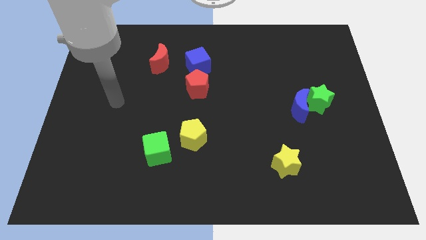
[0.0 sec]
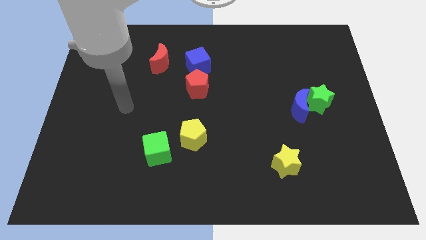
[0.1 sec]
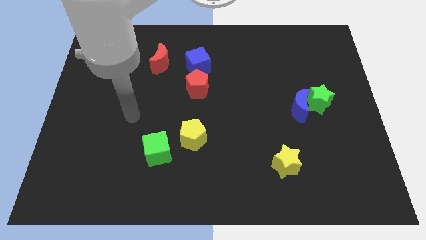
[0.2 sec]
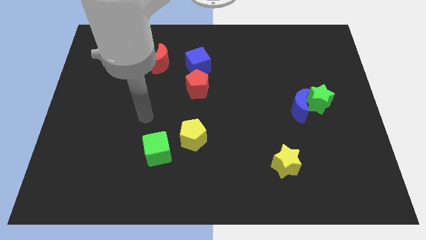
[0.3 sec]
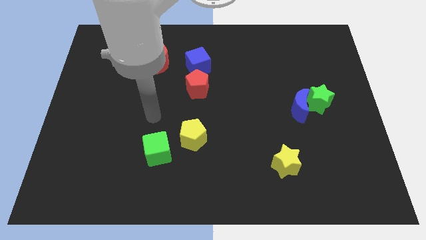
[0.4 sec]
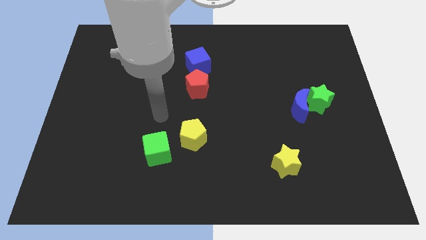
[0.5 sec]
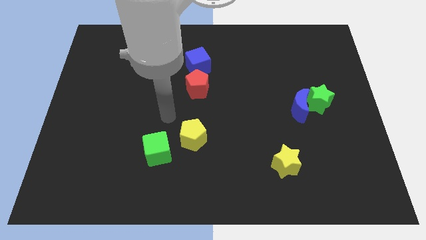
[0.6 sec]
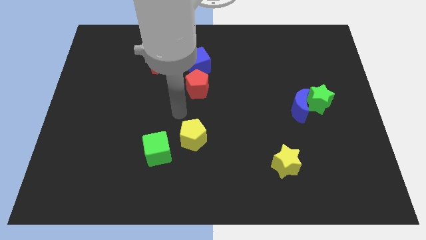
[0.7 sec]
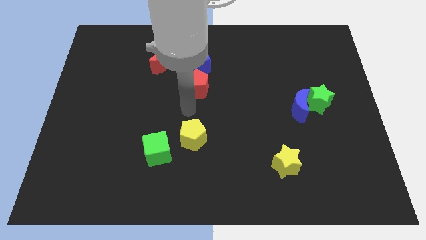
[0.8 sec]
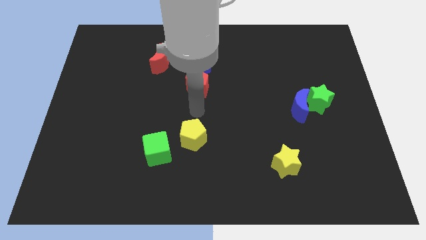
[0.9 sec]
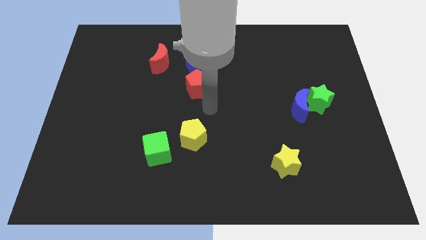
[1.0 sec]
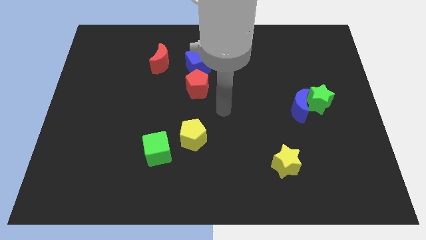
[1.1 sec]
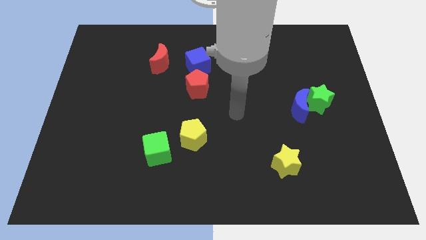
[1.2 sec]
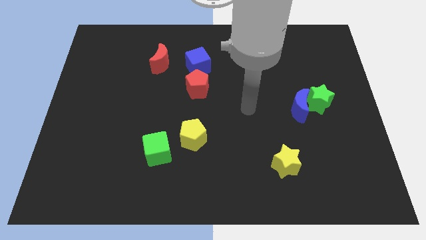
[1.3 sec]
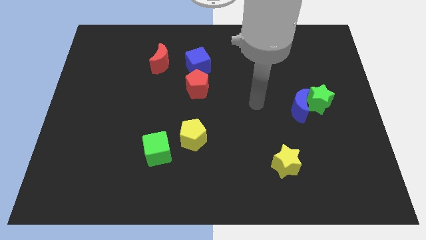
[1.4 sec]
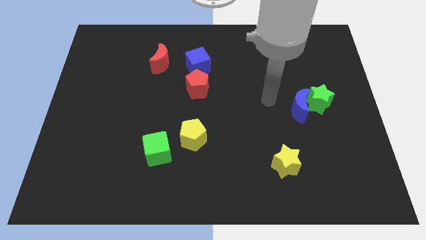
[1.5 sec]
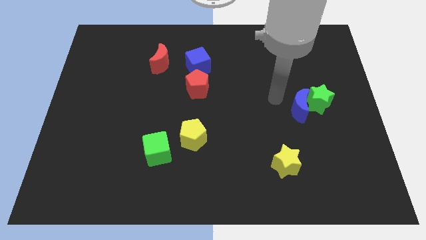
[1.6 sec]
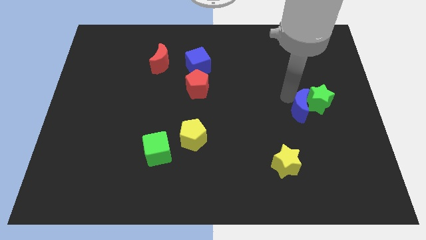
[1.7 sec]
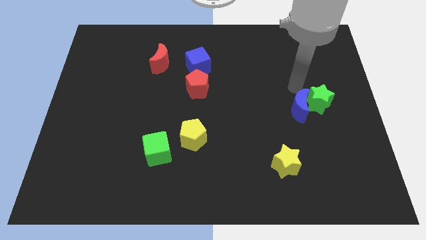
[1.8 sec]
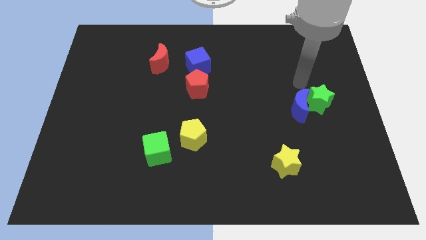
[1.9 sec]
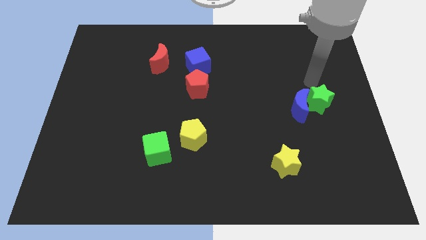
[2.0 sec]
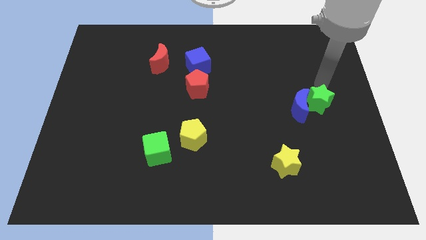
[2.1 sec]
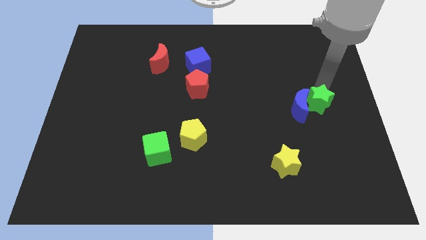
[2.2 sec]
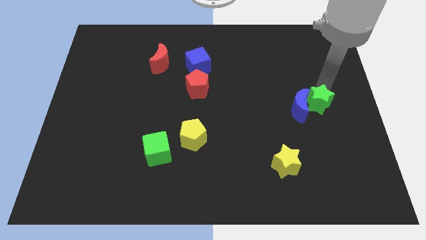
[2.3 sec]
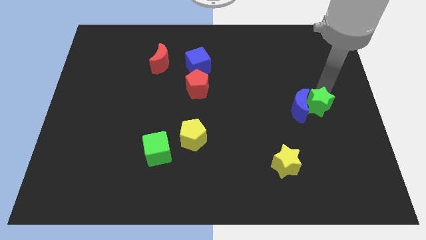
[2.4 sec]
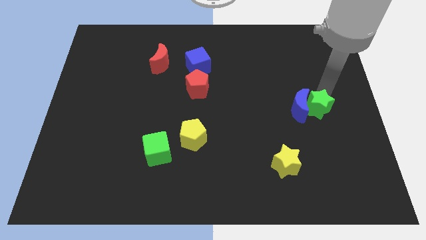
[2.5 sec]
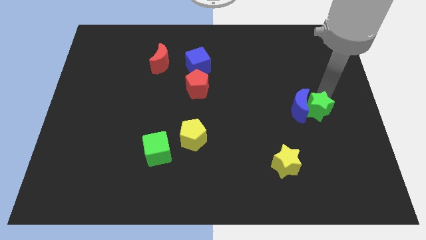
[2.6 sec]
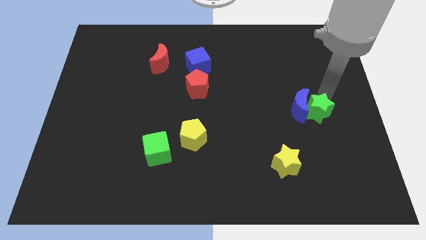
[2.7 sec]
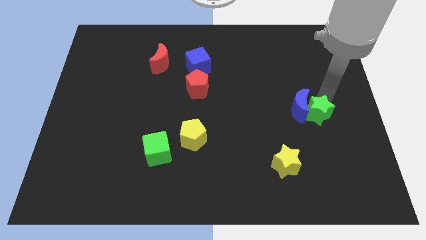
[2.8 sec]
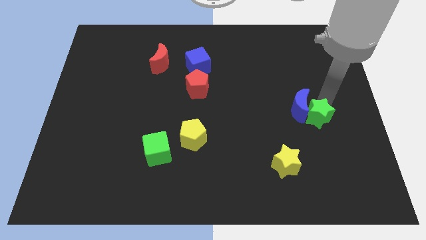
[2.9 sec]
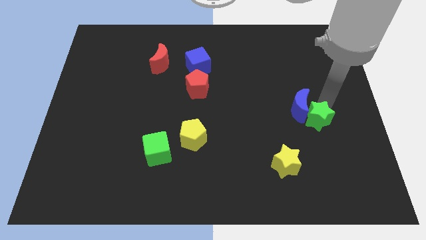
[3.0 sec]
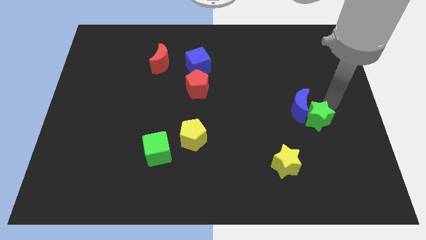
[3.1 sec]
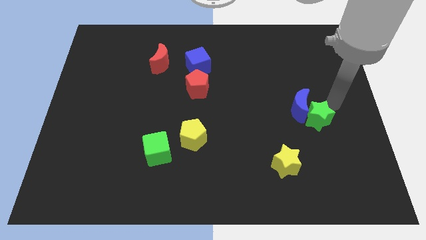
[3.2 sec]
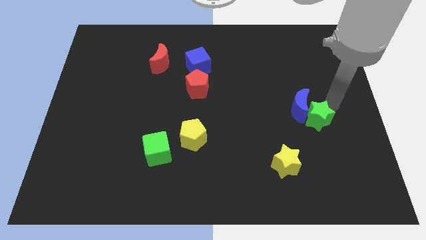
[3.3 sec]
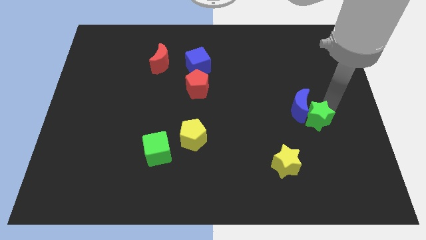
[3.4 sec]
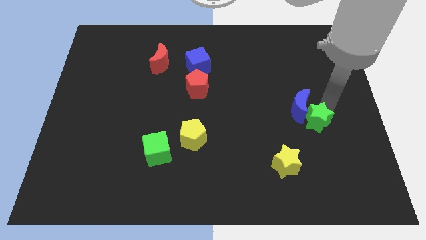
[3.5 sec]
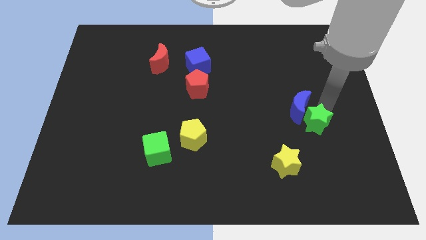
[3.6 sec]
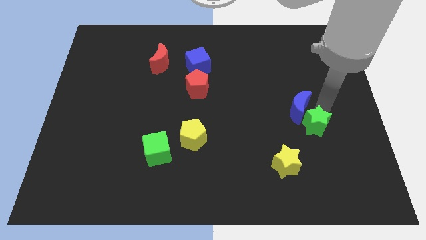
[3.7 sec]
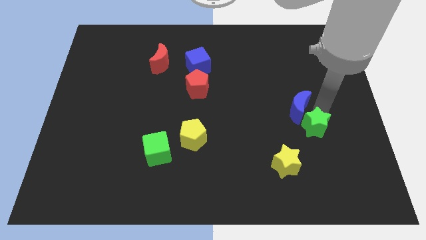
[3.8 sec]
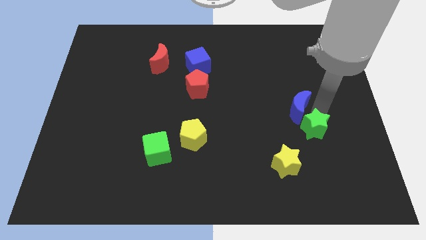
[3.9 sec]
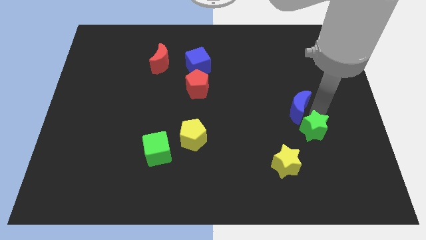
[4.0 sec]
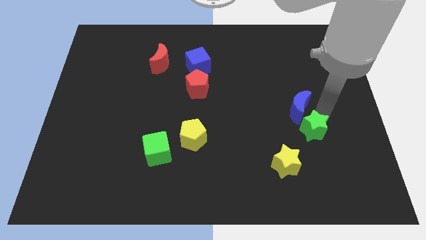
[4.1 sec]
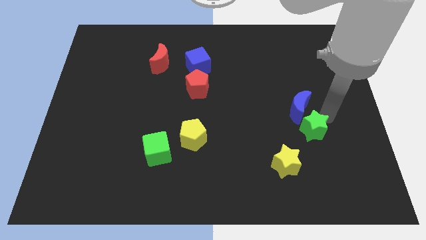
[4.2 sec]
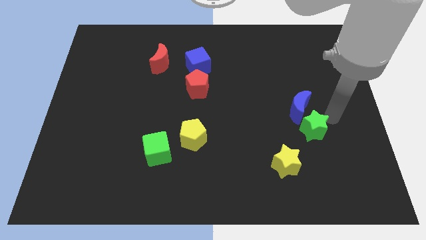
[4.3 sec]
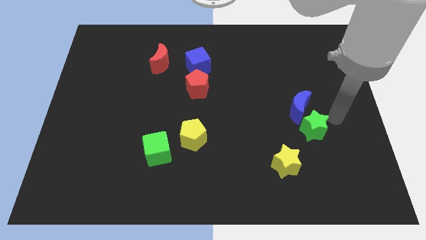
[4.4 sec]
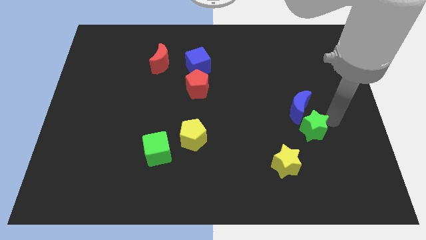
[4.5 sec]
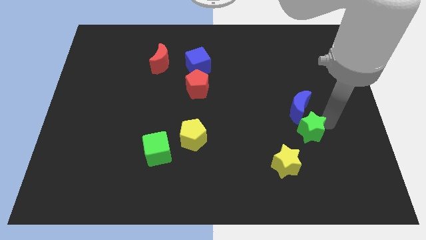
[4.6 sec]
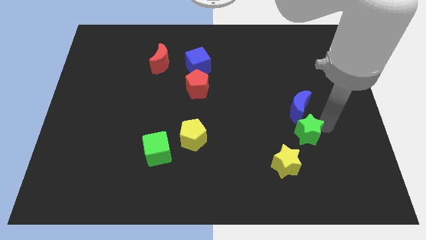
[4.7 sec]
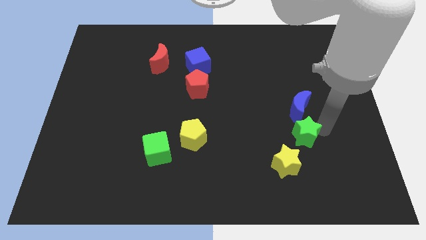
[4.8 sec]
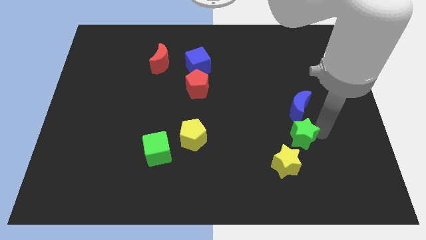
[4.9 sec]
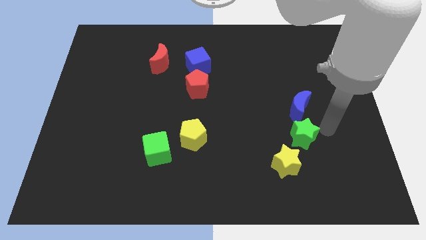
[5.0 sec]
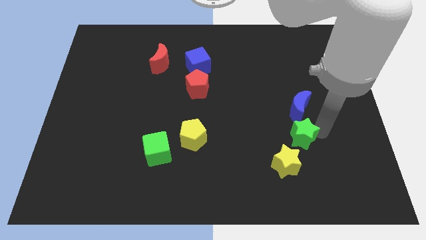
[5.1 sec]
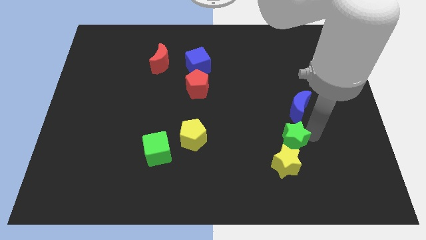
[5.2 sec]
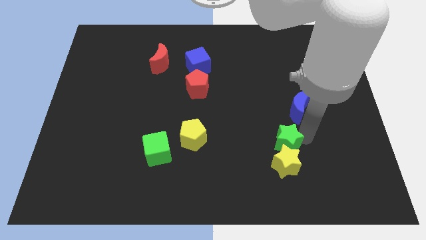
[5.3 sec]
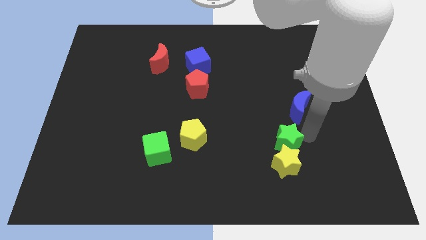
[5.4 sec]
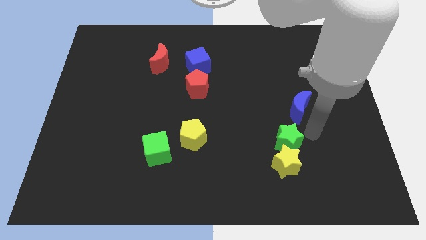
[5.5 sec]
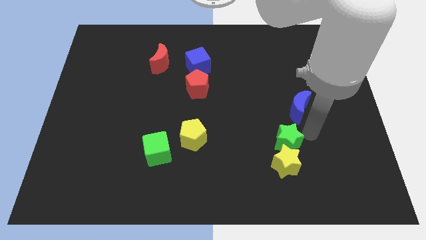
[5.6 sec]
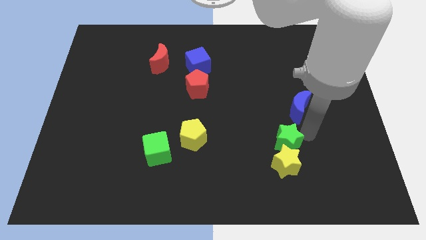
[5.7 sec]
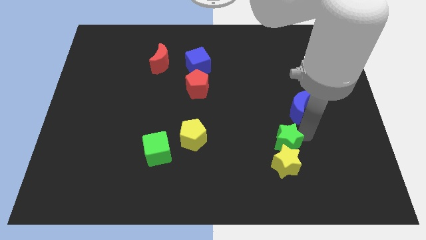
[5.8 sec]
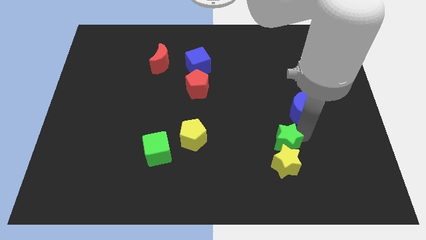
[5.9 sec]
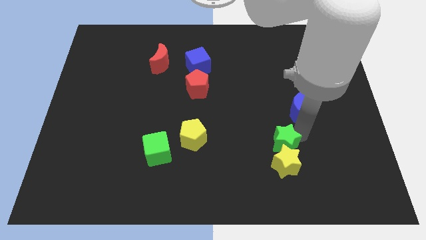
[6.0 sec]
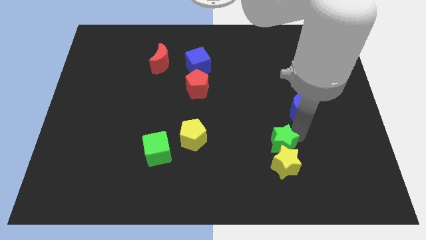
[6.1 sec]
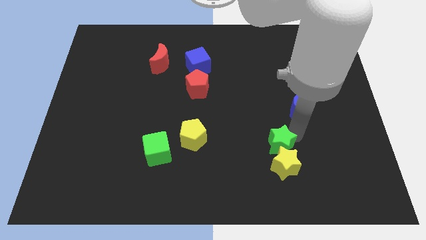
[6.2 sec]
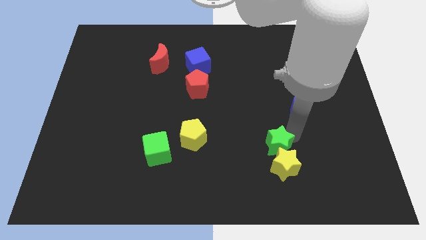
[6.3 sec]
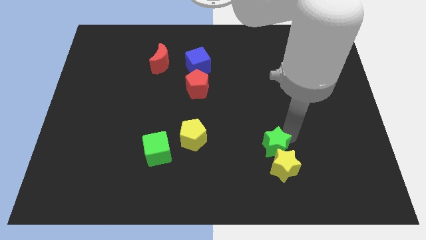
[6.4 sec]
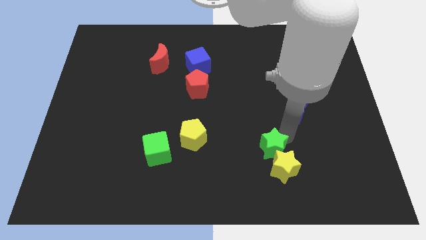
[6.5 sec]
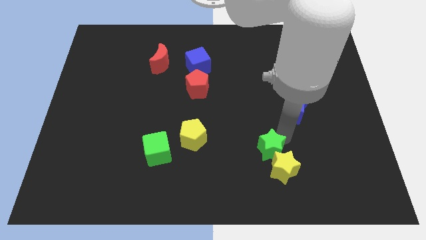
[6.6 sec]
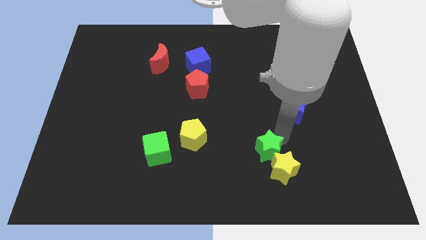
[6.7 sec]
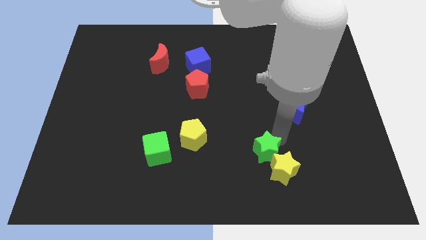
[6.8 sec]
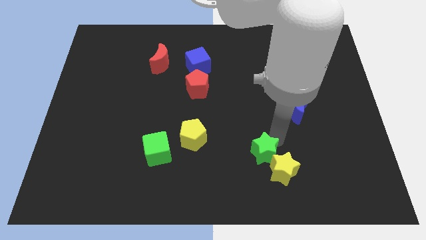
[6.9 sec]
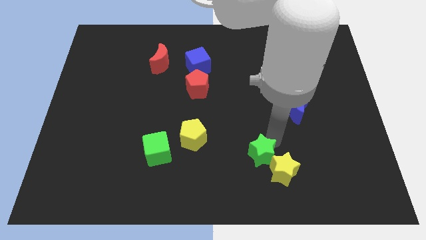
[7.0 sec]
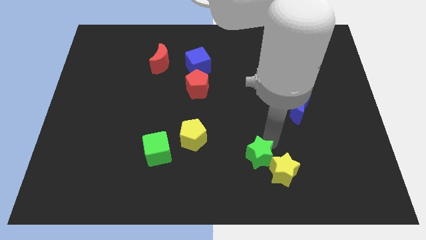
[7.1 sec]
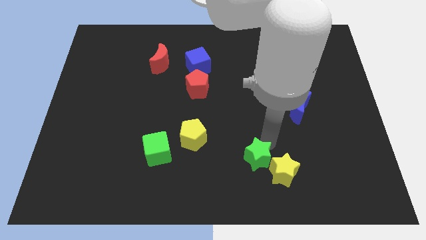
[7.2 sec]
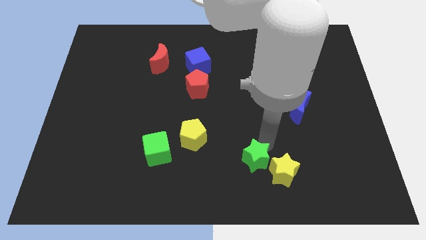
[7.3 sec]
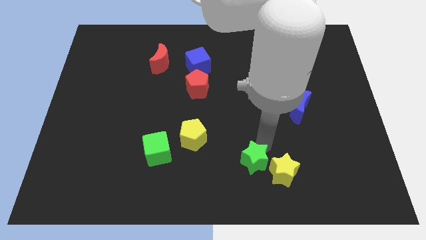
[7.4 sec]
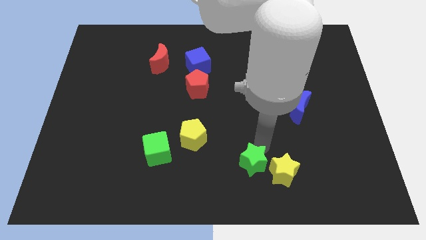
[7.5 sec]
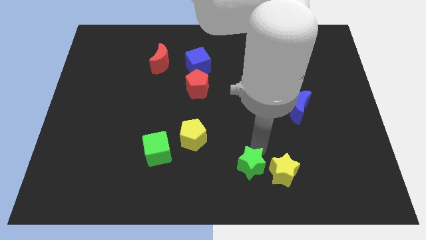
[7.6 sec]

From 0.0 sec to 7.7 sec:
slide the green star to the bottom side
